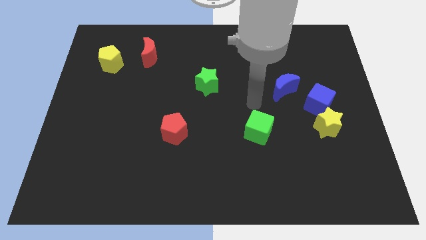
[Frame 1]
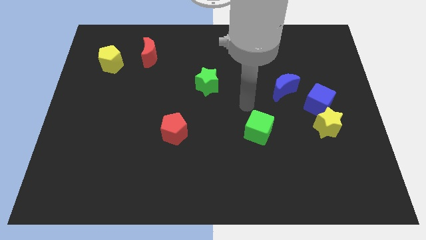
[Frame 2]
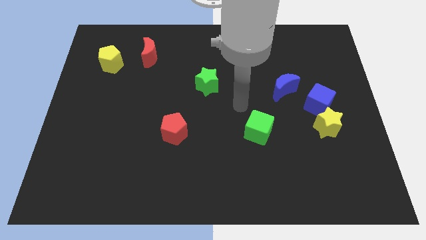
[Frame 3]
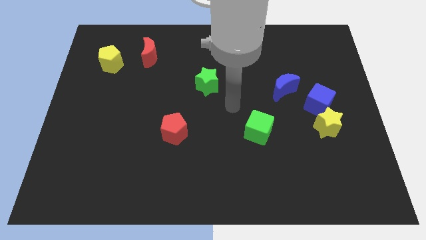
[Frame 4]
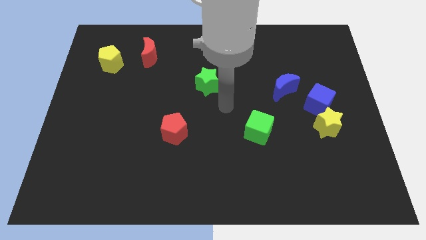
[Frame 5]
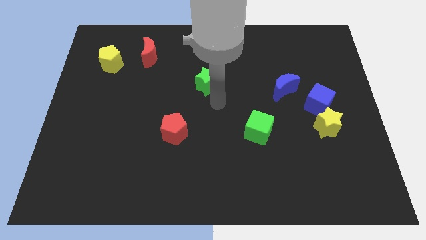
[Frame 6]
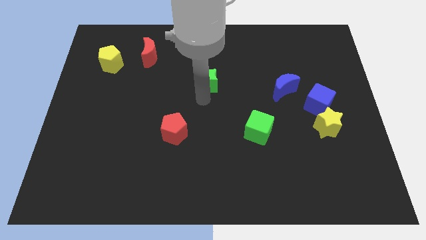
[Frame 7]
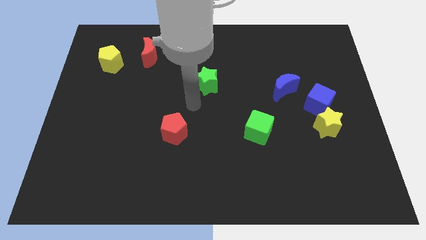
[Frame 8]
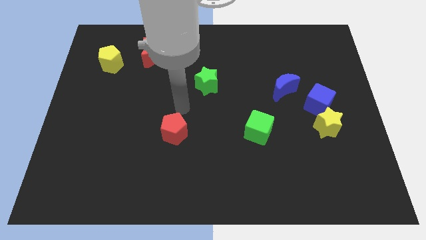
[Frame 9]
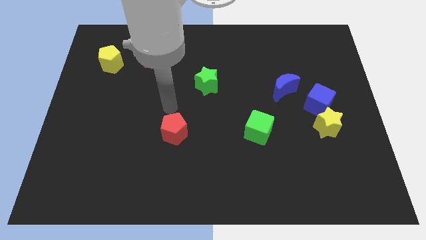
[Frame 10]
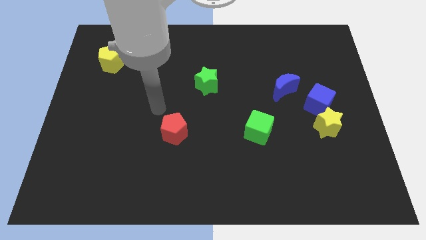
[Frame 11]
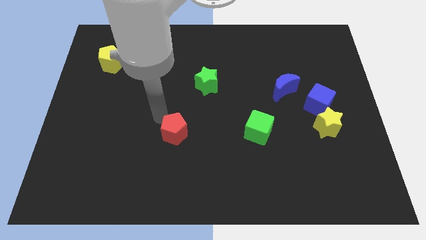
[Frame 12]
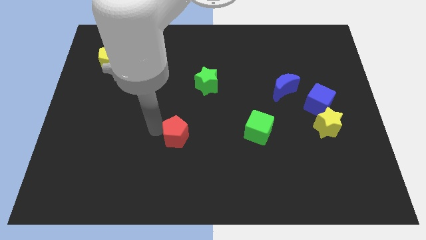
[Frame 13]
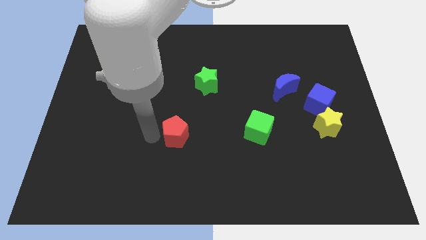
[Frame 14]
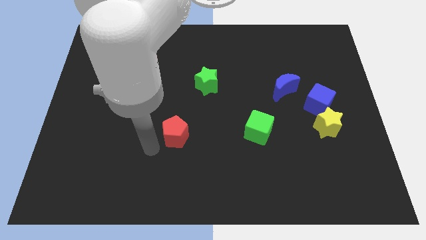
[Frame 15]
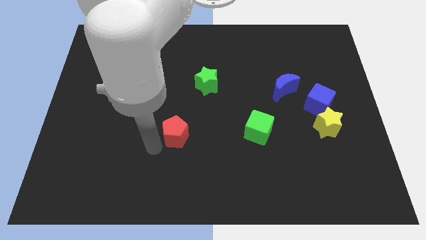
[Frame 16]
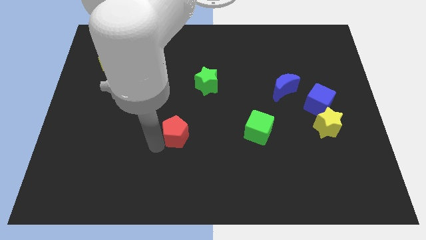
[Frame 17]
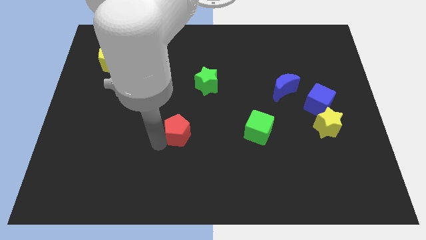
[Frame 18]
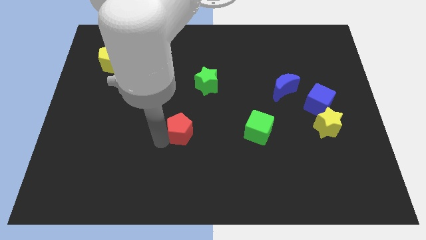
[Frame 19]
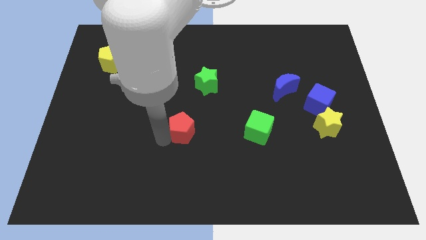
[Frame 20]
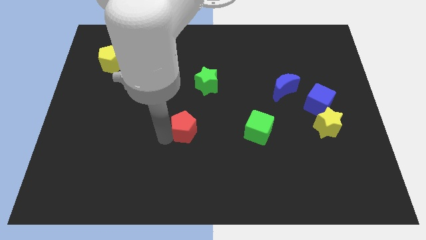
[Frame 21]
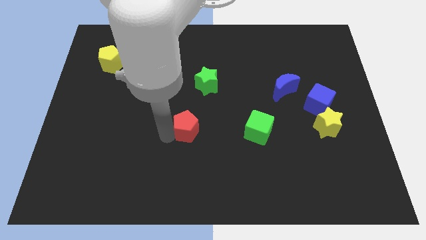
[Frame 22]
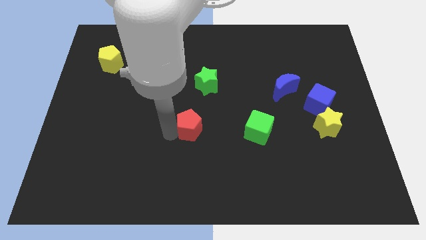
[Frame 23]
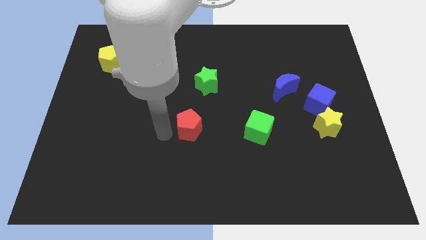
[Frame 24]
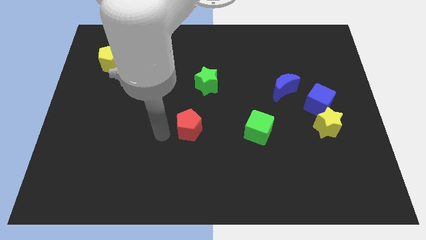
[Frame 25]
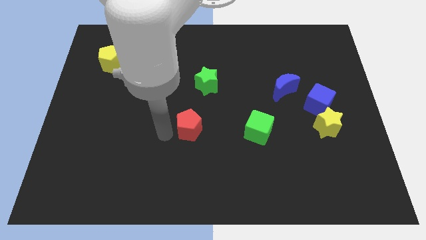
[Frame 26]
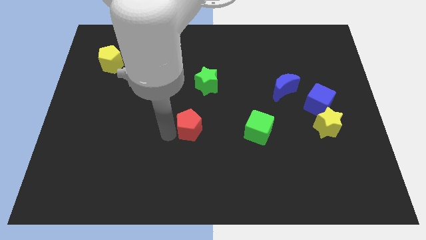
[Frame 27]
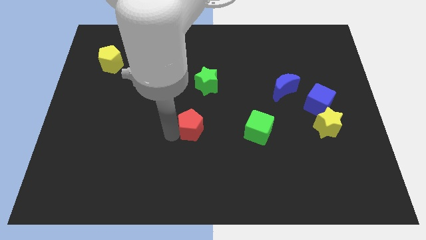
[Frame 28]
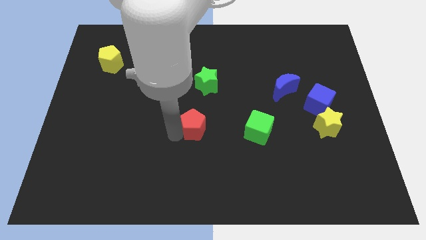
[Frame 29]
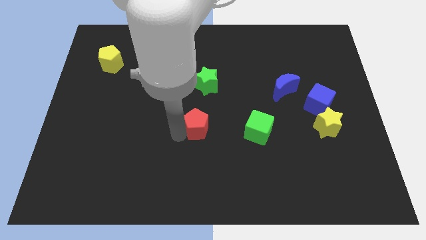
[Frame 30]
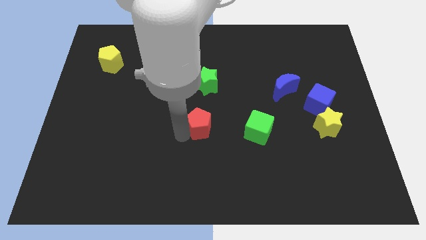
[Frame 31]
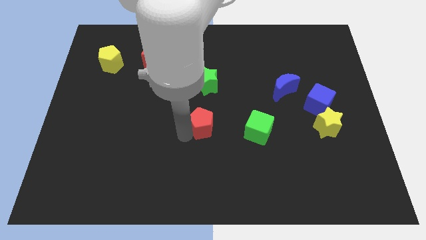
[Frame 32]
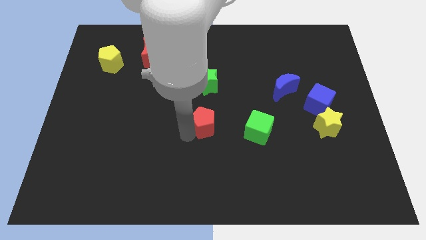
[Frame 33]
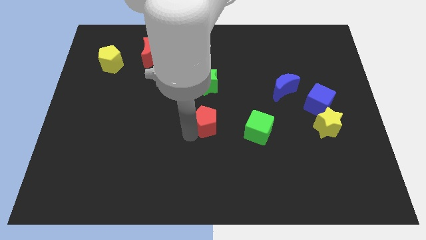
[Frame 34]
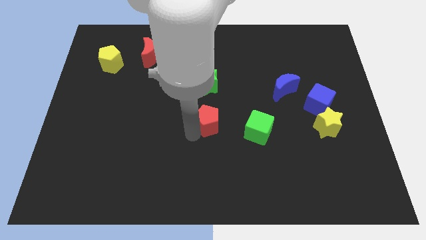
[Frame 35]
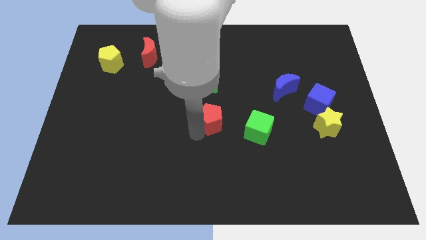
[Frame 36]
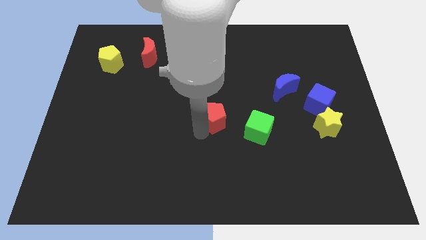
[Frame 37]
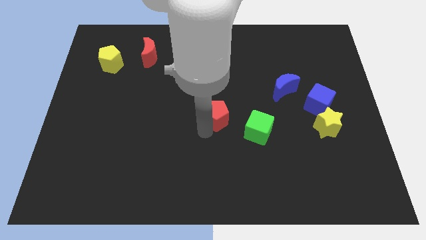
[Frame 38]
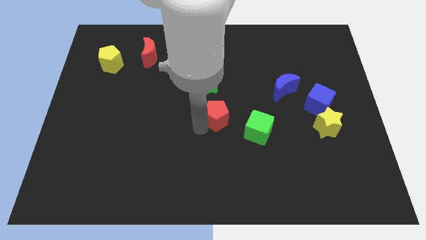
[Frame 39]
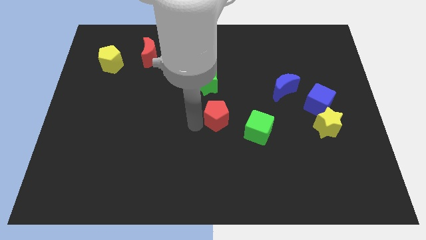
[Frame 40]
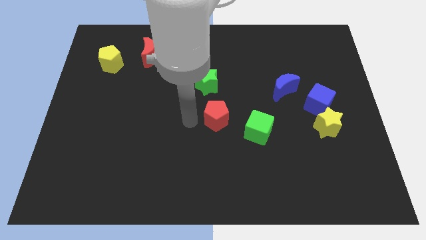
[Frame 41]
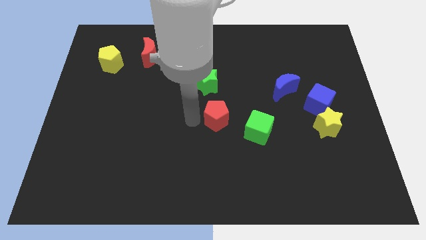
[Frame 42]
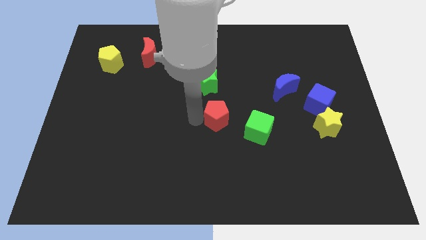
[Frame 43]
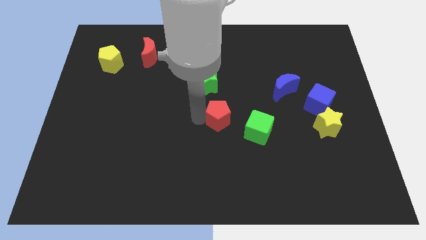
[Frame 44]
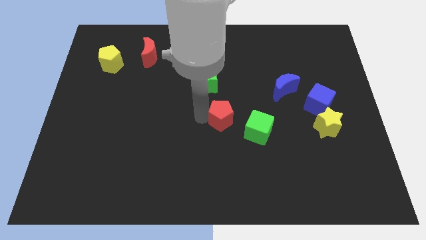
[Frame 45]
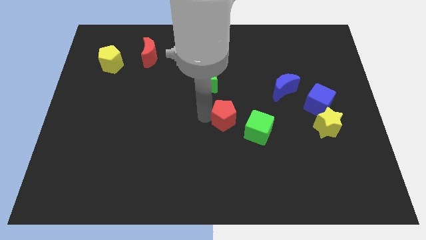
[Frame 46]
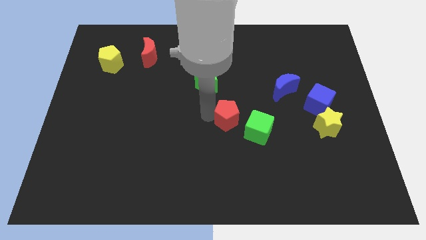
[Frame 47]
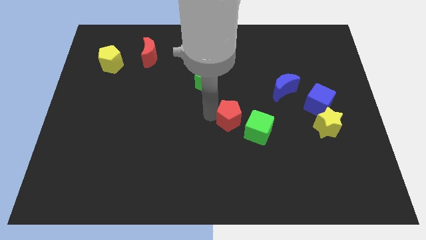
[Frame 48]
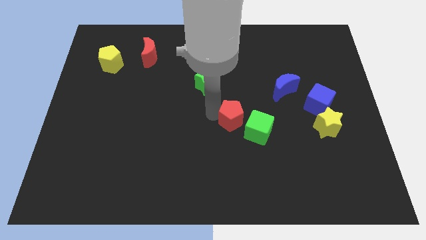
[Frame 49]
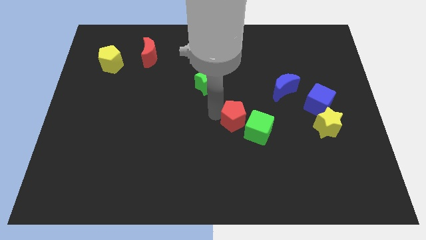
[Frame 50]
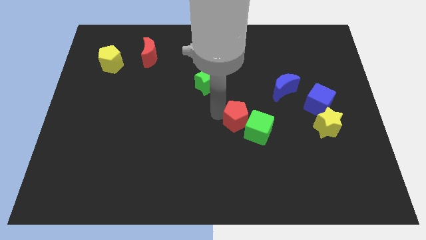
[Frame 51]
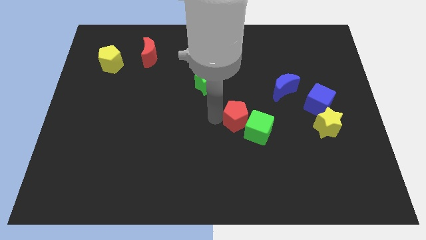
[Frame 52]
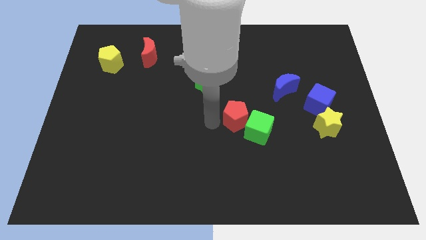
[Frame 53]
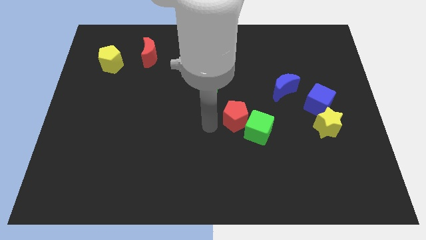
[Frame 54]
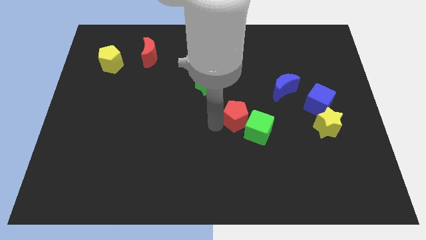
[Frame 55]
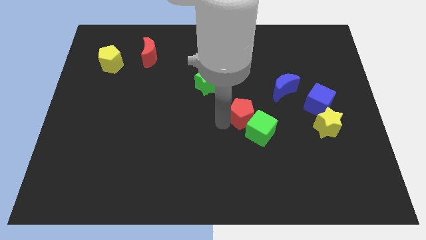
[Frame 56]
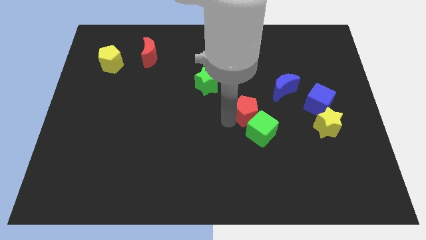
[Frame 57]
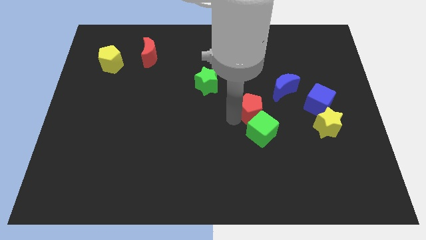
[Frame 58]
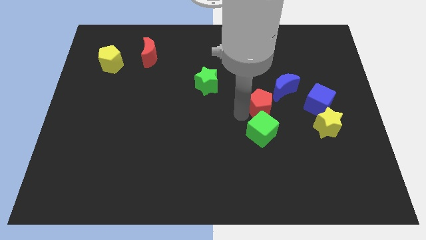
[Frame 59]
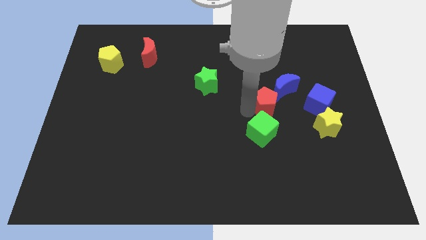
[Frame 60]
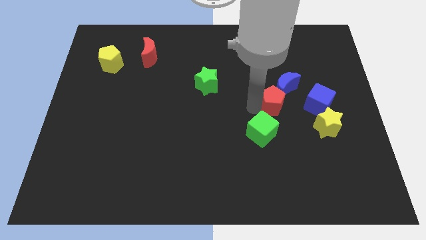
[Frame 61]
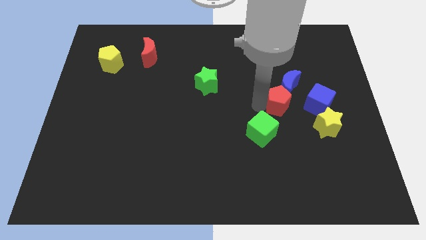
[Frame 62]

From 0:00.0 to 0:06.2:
slide the red pentagon to the top left side of the yellow star
